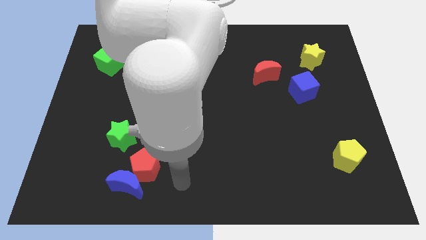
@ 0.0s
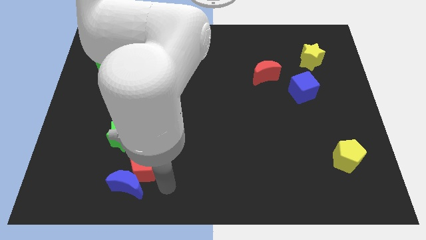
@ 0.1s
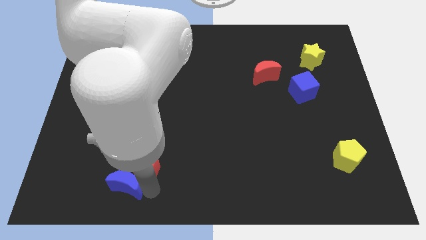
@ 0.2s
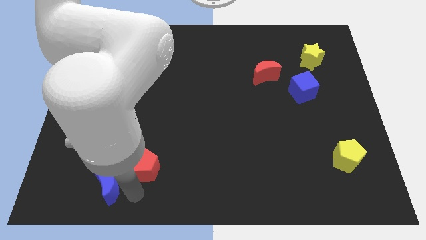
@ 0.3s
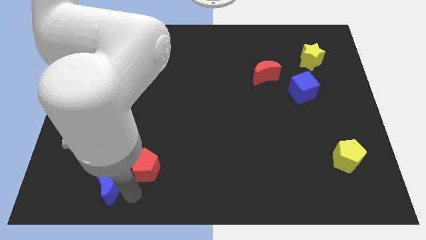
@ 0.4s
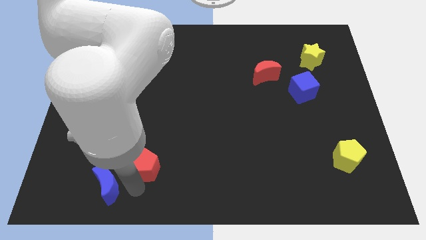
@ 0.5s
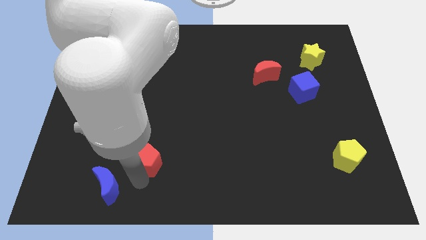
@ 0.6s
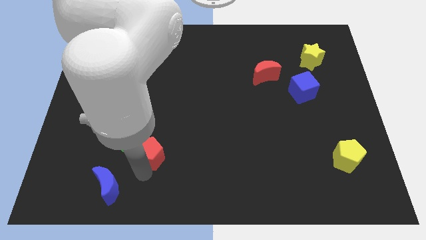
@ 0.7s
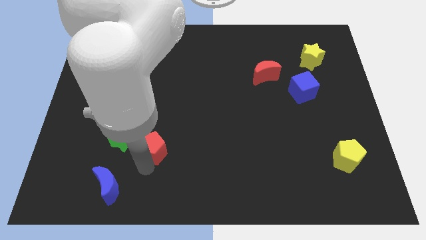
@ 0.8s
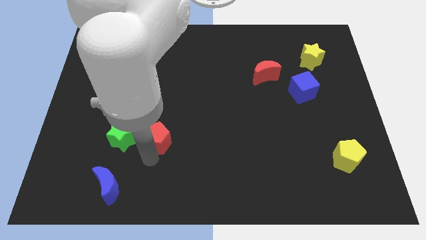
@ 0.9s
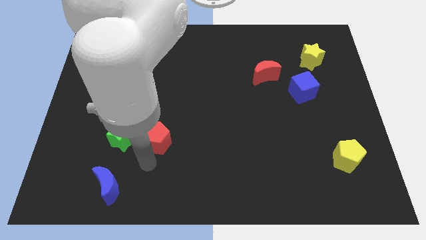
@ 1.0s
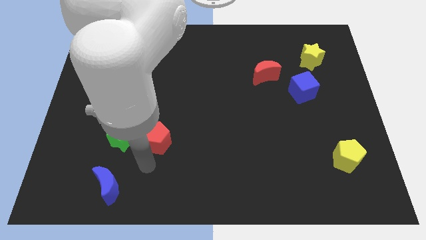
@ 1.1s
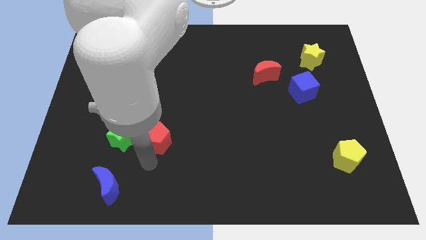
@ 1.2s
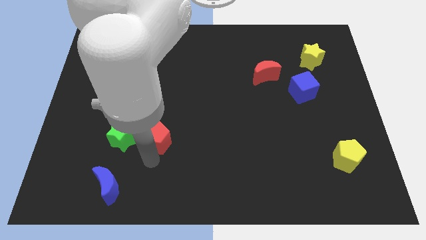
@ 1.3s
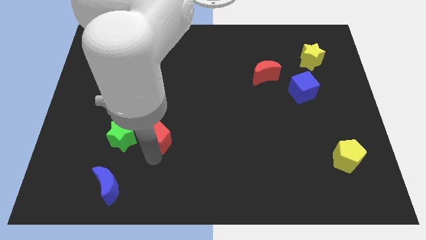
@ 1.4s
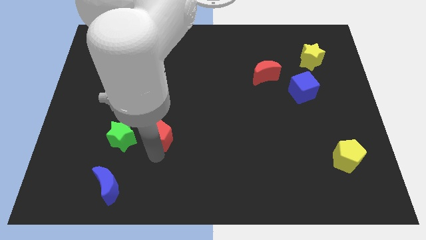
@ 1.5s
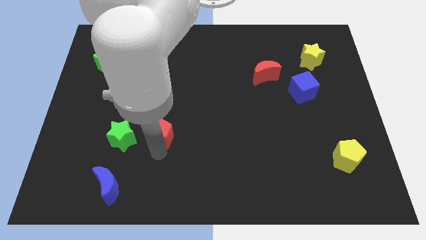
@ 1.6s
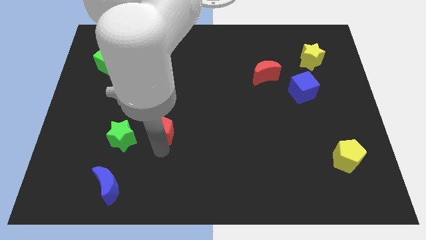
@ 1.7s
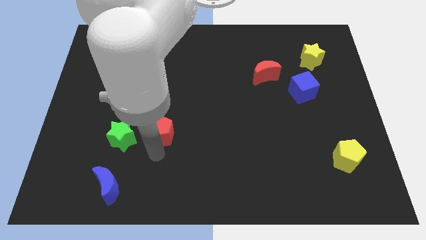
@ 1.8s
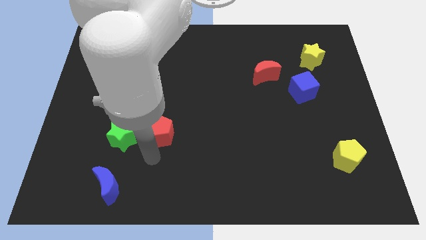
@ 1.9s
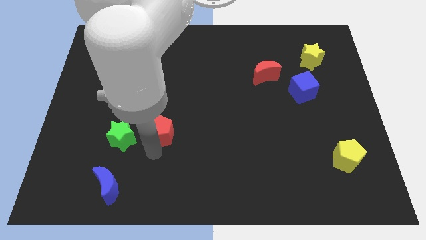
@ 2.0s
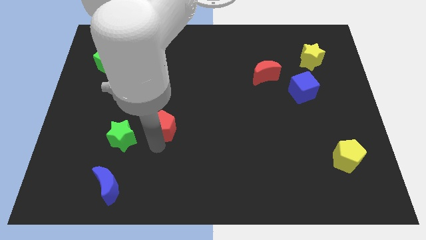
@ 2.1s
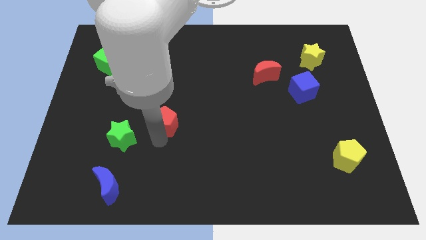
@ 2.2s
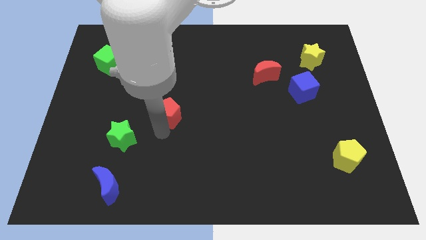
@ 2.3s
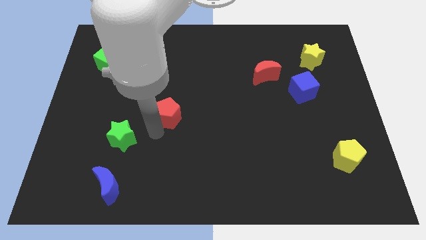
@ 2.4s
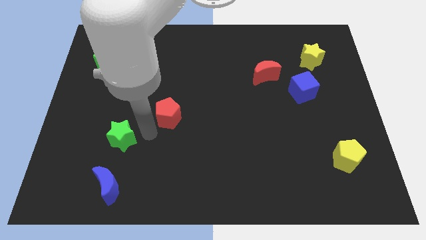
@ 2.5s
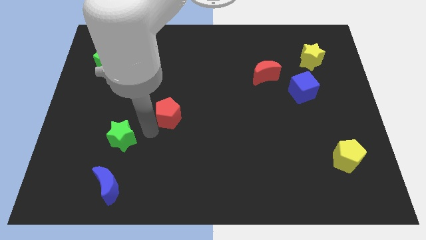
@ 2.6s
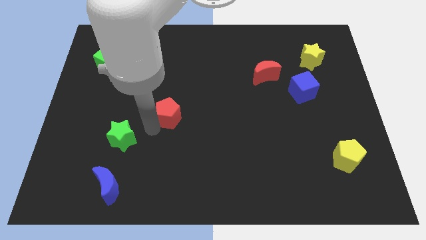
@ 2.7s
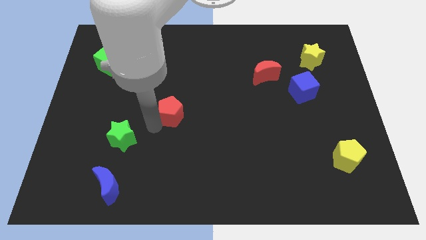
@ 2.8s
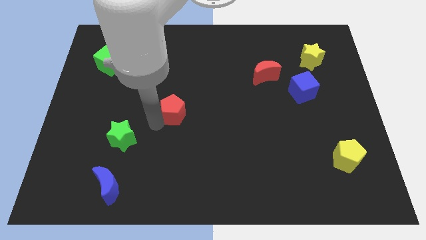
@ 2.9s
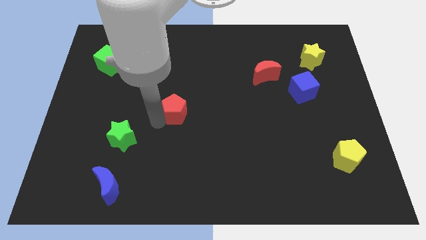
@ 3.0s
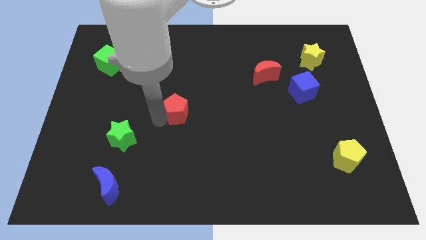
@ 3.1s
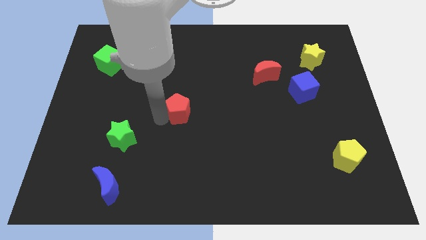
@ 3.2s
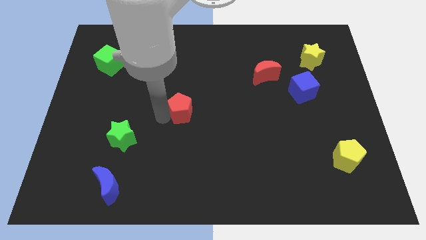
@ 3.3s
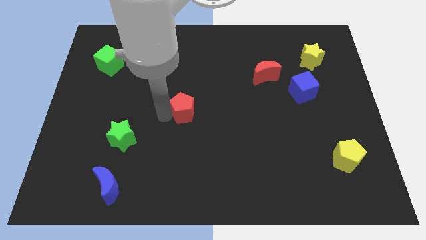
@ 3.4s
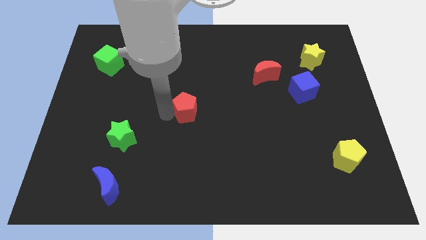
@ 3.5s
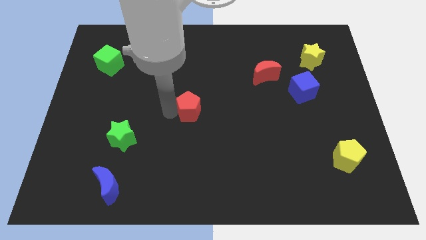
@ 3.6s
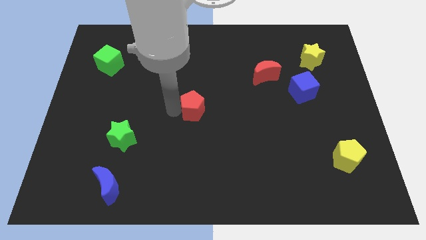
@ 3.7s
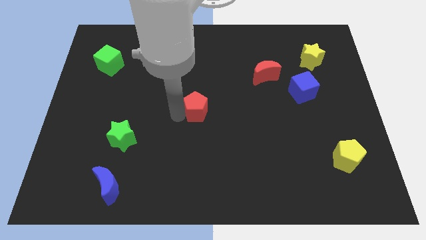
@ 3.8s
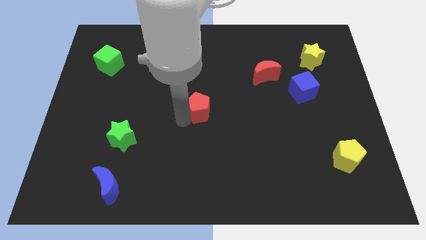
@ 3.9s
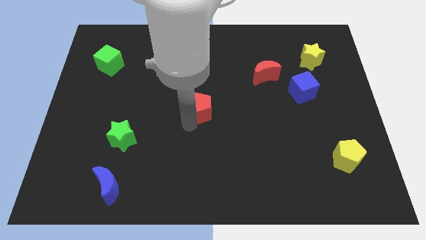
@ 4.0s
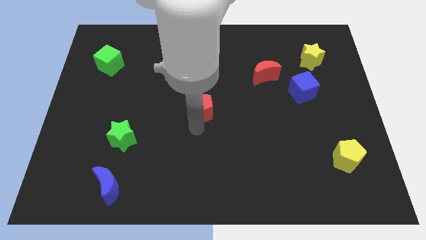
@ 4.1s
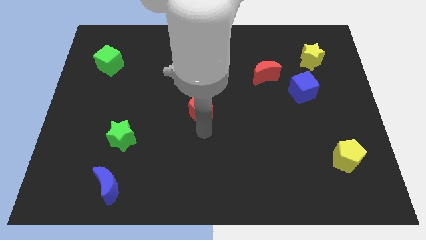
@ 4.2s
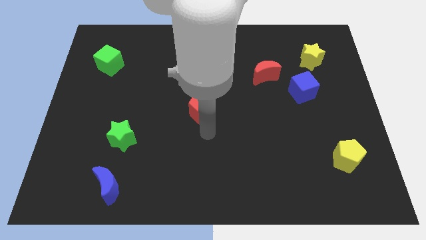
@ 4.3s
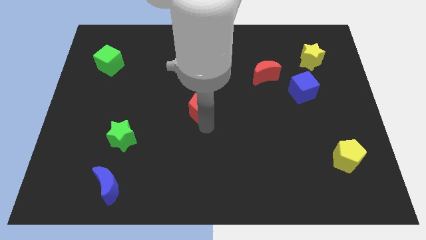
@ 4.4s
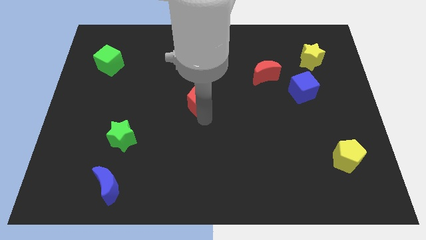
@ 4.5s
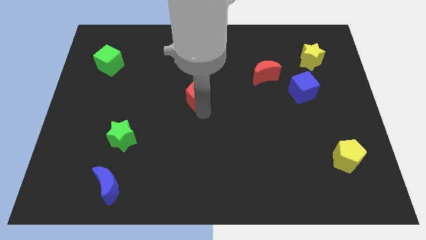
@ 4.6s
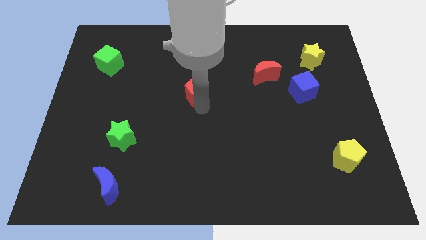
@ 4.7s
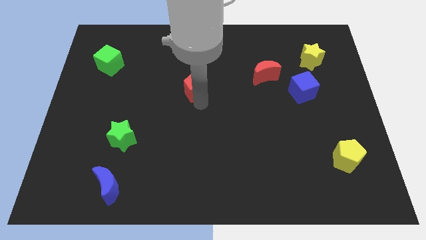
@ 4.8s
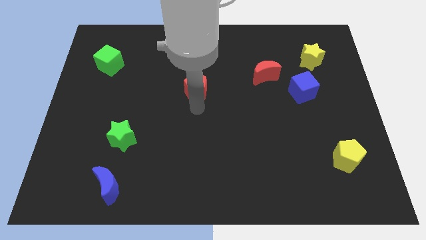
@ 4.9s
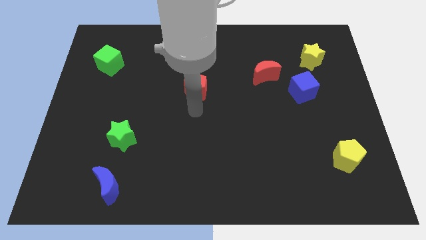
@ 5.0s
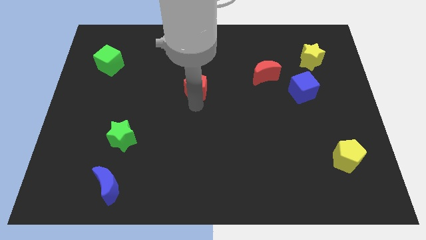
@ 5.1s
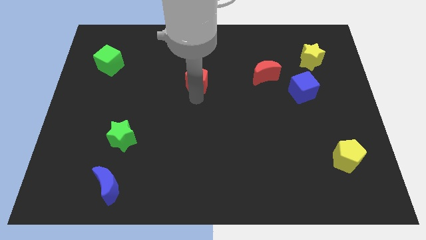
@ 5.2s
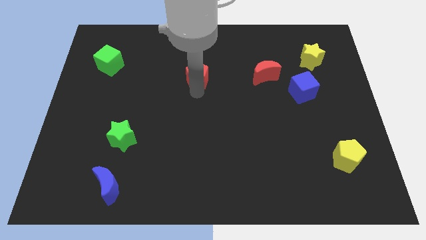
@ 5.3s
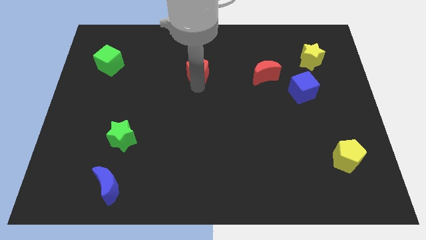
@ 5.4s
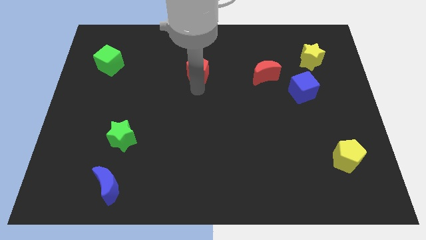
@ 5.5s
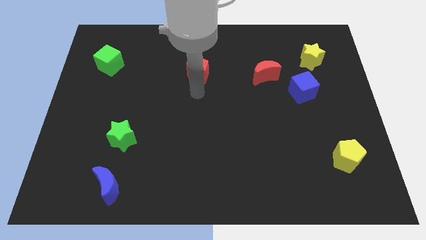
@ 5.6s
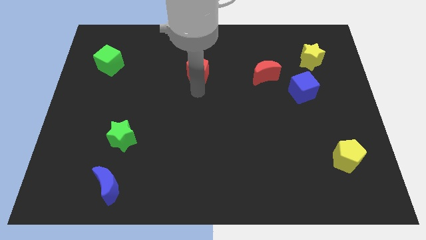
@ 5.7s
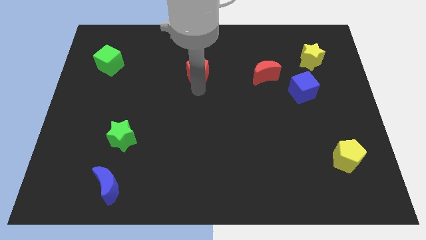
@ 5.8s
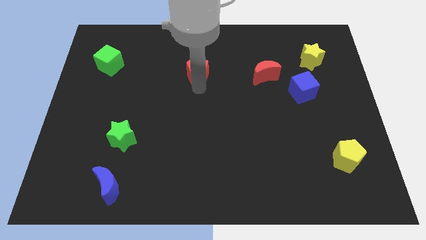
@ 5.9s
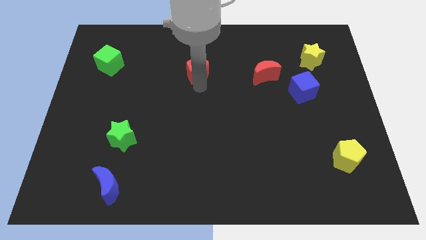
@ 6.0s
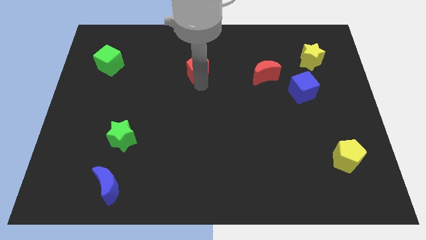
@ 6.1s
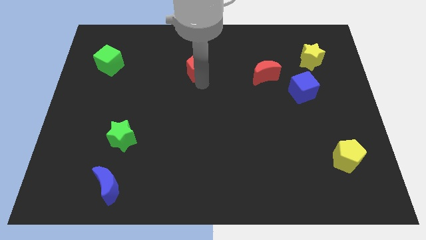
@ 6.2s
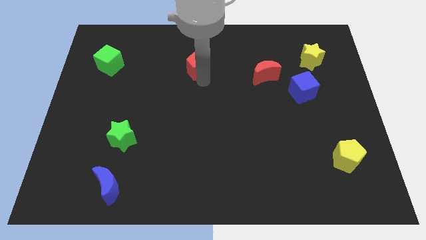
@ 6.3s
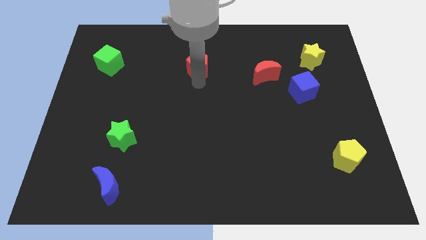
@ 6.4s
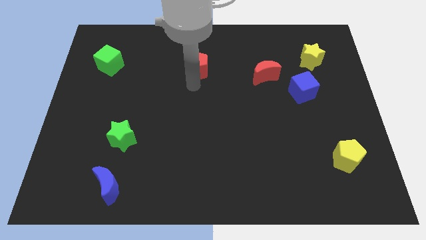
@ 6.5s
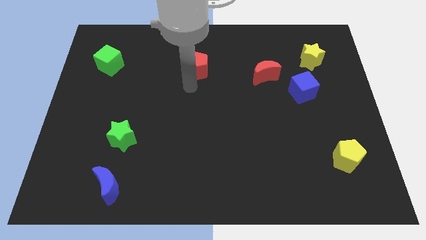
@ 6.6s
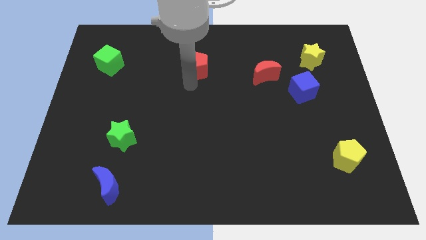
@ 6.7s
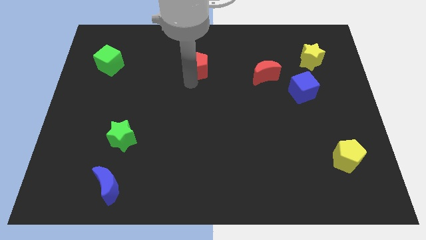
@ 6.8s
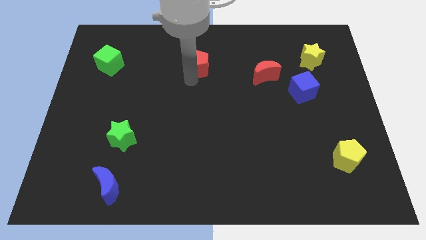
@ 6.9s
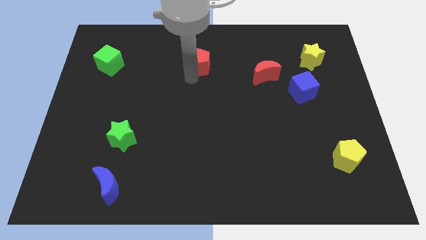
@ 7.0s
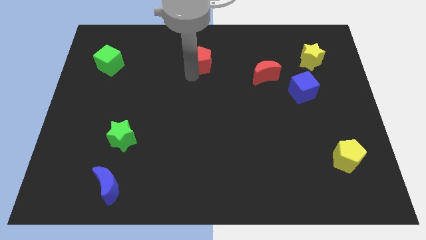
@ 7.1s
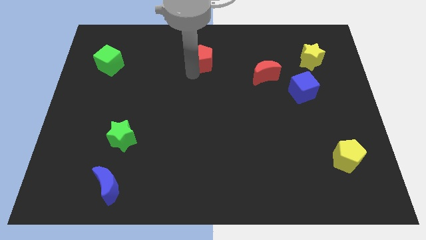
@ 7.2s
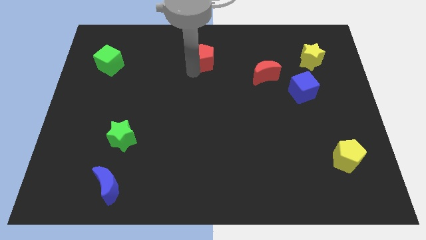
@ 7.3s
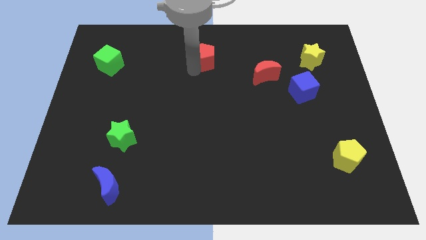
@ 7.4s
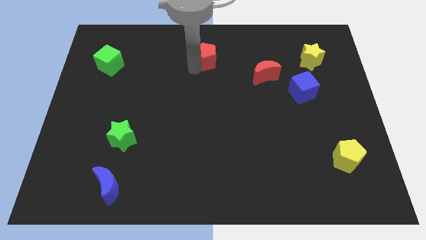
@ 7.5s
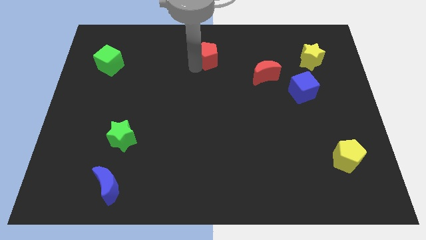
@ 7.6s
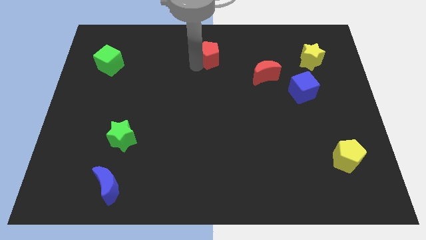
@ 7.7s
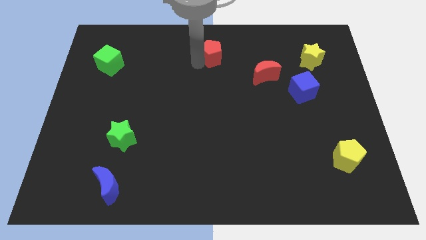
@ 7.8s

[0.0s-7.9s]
move the red pentagon to the top side
